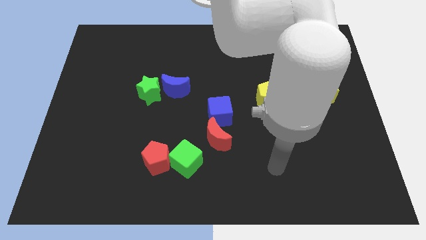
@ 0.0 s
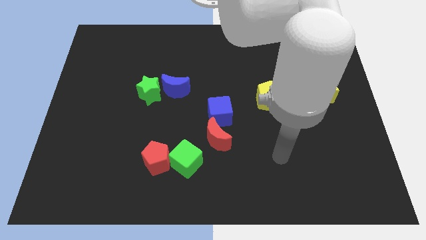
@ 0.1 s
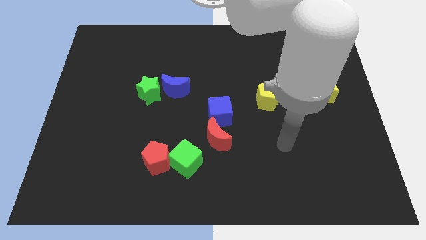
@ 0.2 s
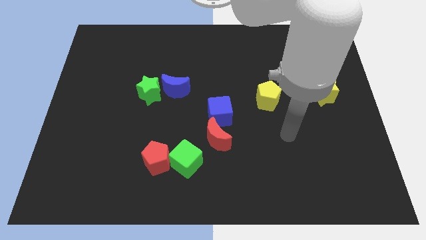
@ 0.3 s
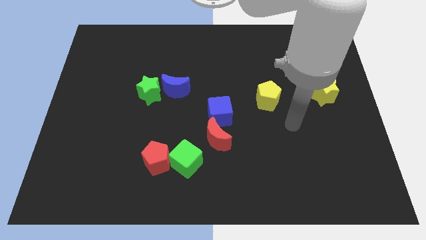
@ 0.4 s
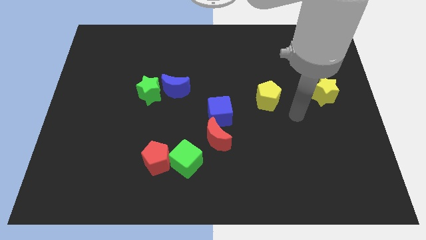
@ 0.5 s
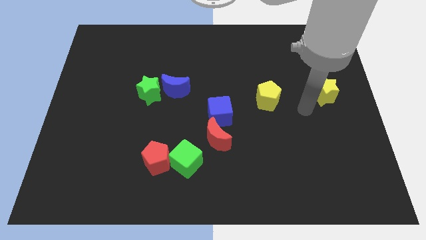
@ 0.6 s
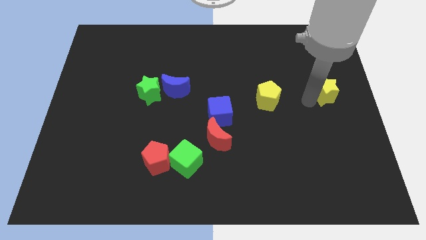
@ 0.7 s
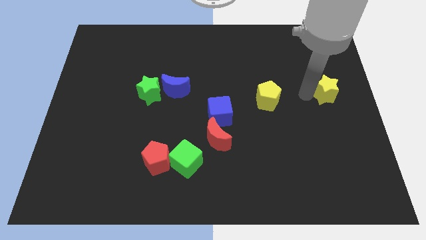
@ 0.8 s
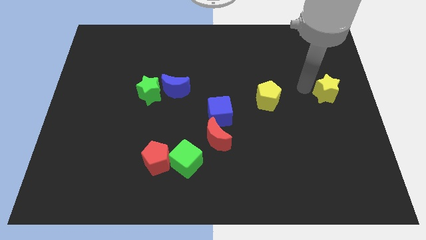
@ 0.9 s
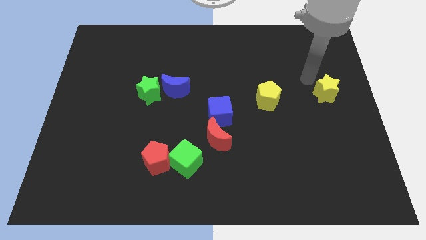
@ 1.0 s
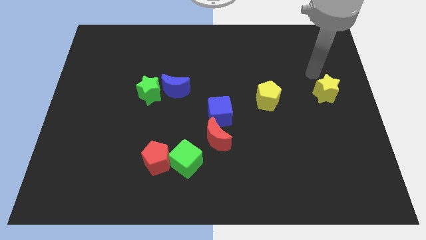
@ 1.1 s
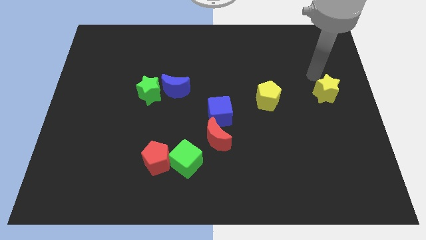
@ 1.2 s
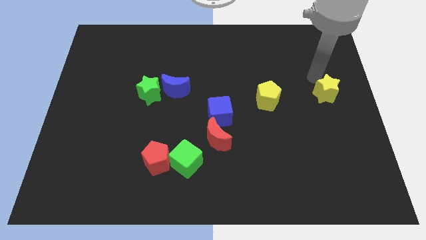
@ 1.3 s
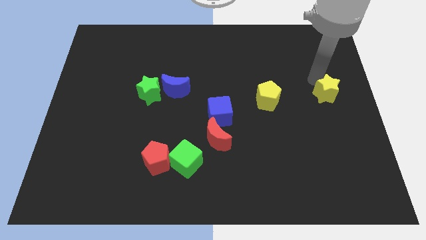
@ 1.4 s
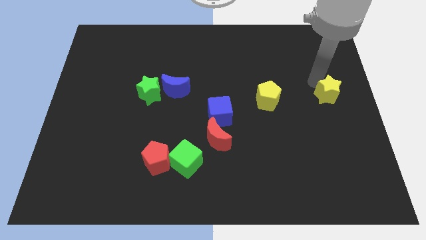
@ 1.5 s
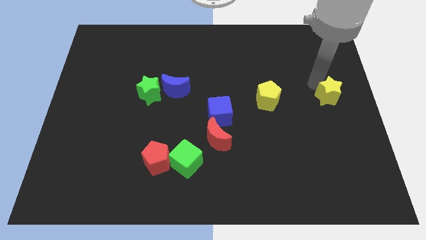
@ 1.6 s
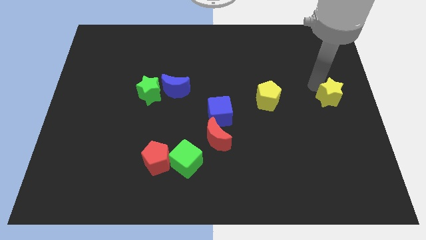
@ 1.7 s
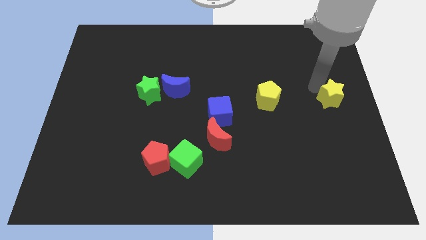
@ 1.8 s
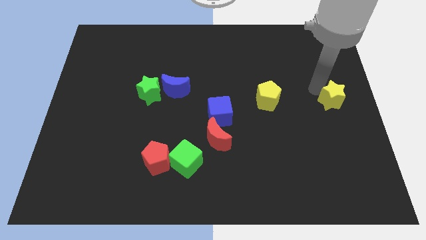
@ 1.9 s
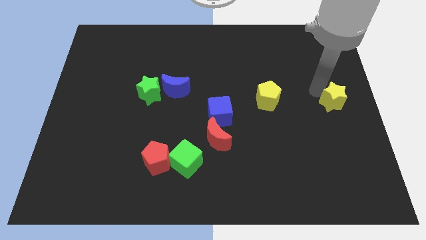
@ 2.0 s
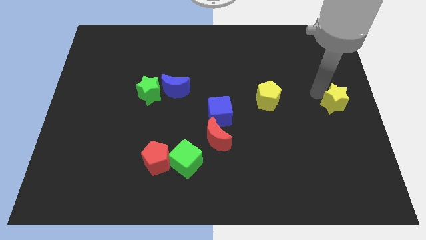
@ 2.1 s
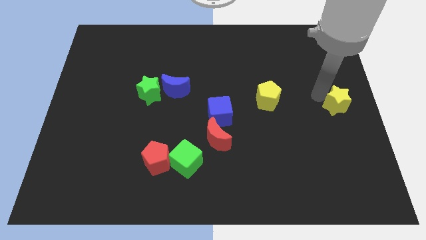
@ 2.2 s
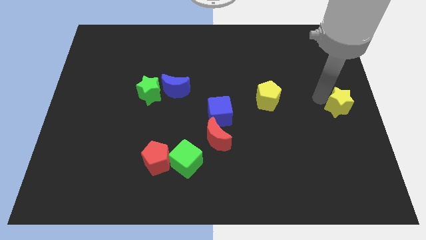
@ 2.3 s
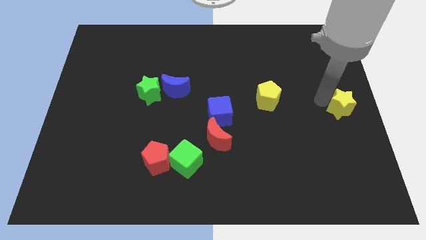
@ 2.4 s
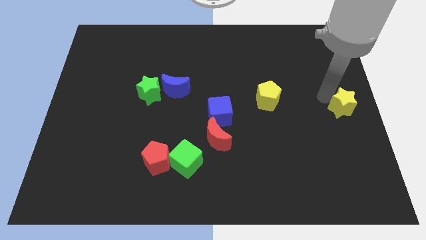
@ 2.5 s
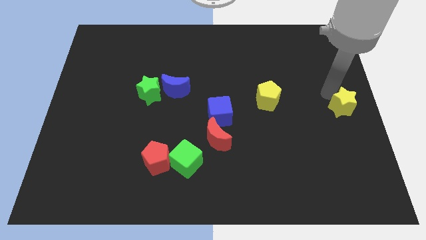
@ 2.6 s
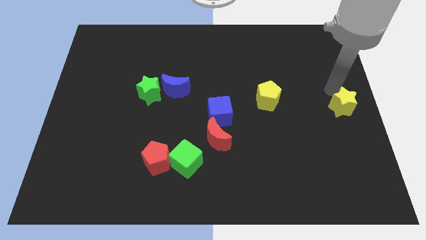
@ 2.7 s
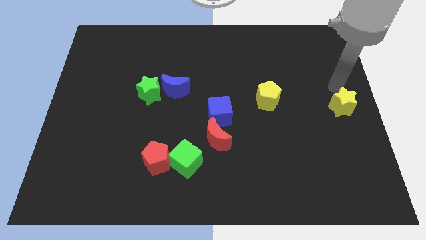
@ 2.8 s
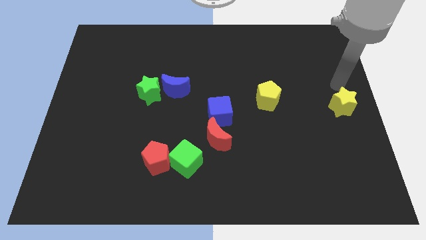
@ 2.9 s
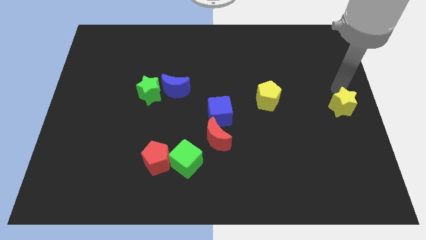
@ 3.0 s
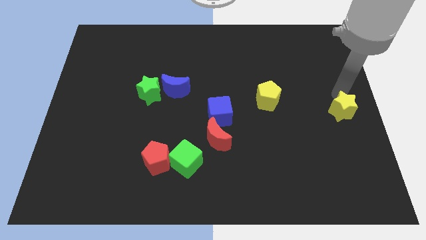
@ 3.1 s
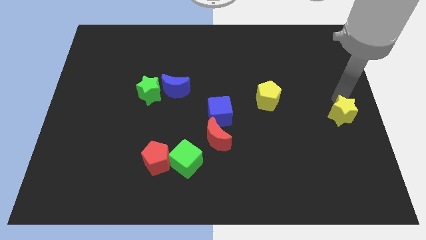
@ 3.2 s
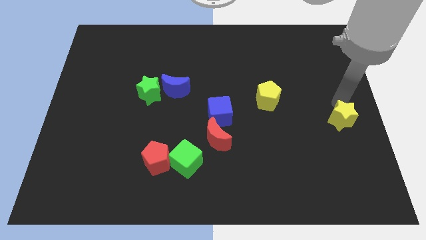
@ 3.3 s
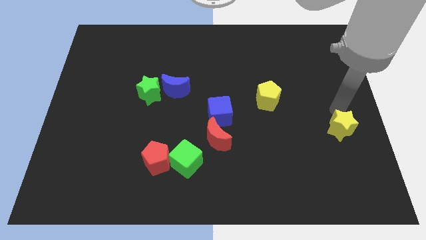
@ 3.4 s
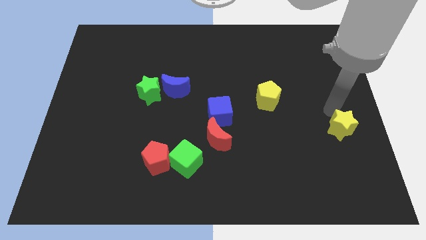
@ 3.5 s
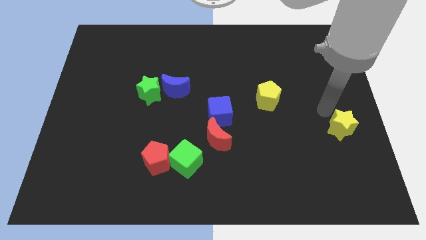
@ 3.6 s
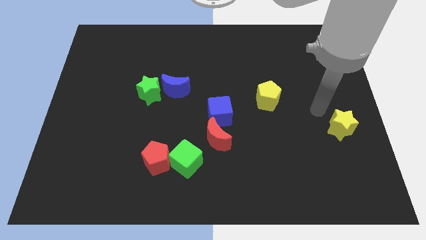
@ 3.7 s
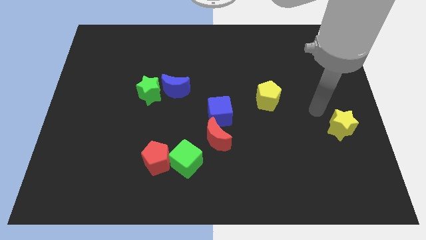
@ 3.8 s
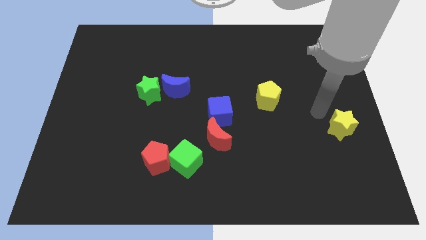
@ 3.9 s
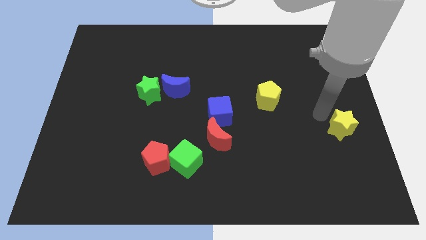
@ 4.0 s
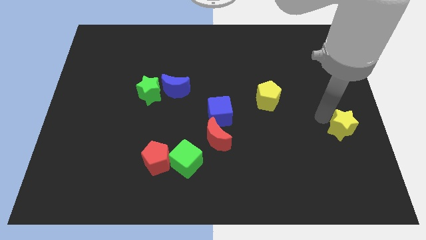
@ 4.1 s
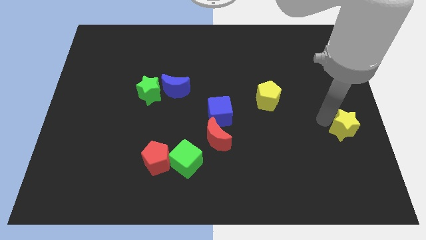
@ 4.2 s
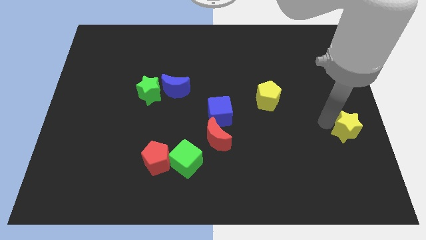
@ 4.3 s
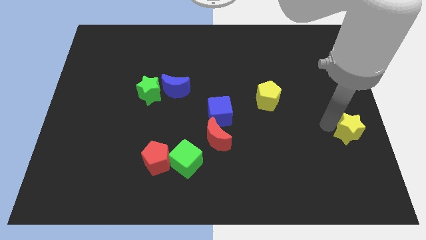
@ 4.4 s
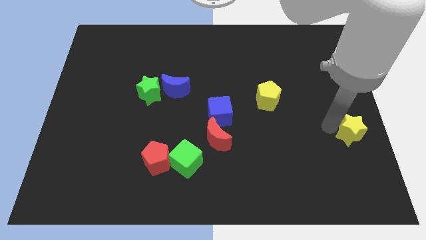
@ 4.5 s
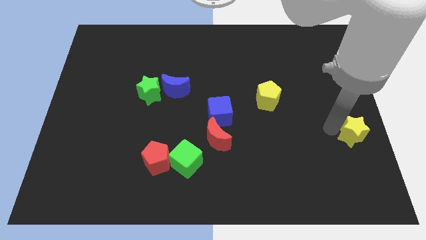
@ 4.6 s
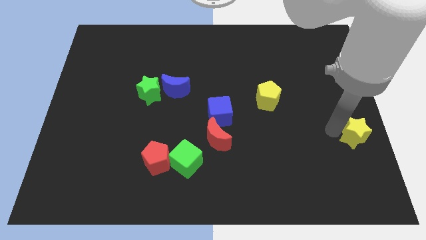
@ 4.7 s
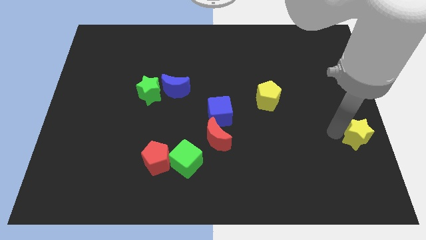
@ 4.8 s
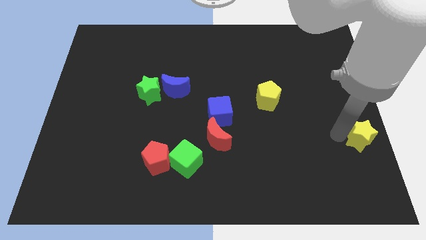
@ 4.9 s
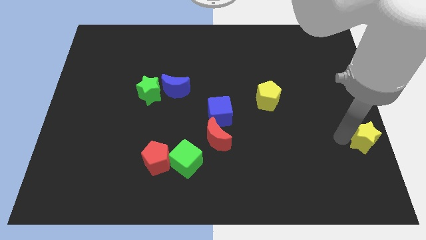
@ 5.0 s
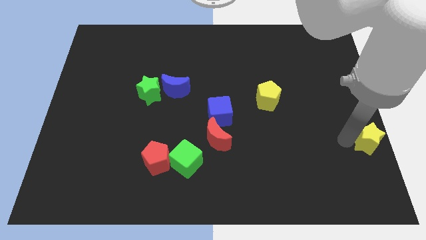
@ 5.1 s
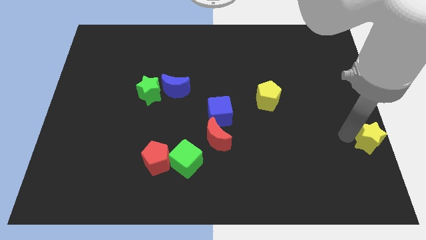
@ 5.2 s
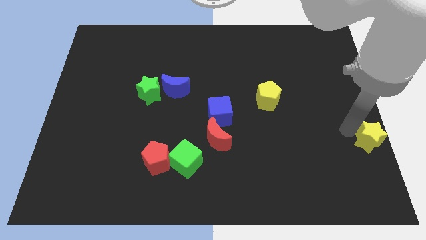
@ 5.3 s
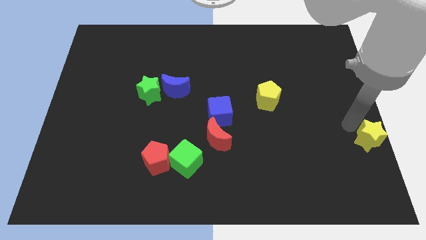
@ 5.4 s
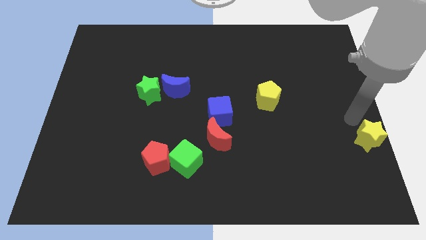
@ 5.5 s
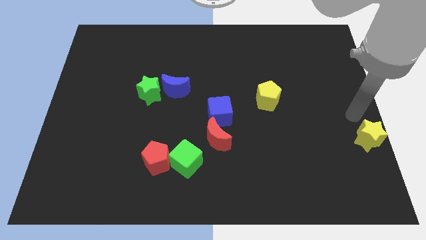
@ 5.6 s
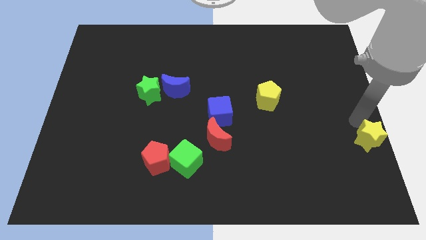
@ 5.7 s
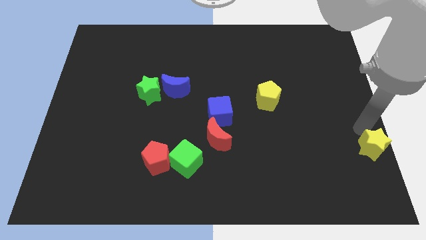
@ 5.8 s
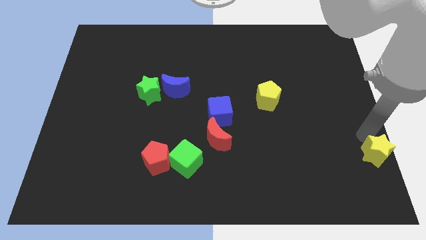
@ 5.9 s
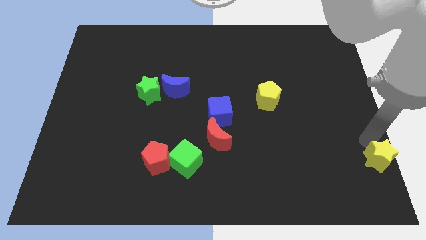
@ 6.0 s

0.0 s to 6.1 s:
put the yellow star to the bottom right
